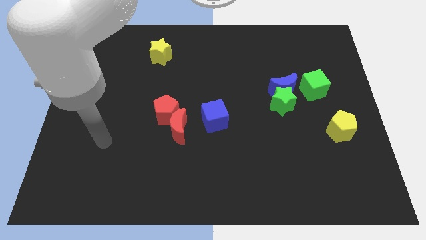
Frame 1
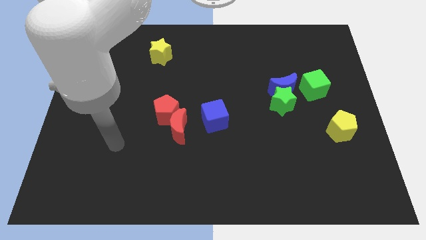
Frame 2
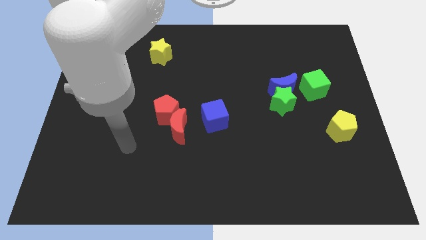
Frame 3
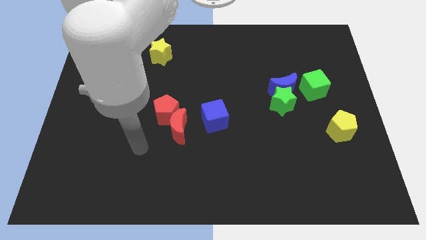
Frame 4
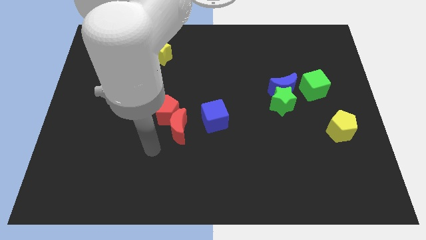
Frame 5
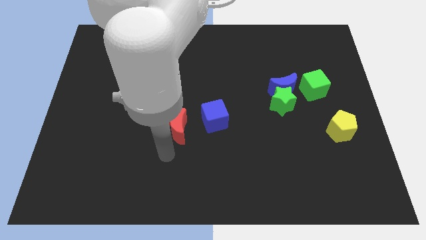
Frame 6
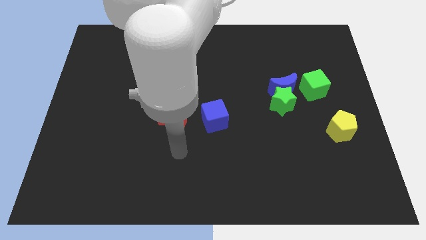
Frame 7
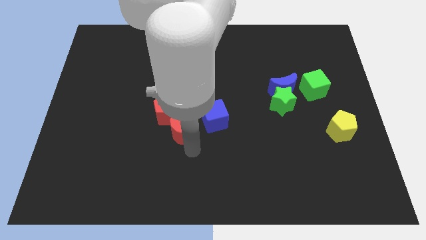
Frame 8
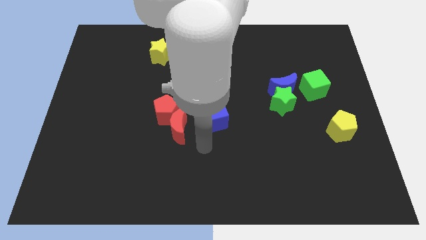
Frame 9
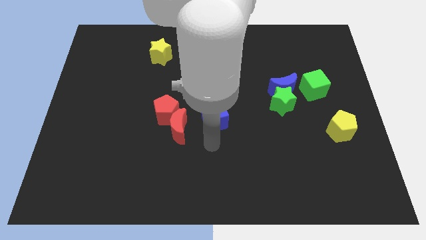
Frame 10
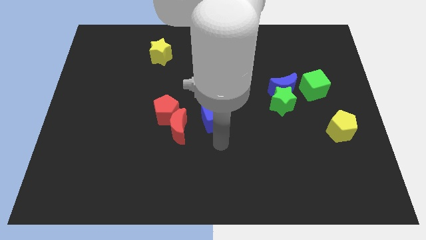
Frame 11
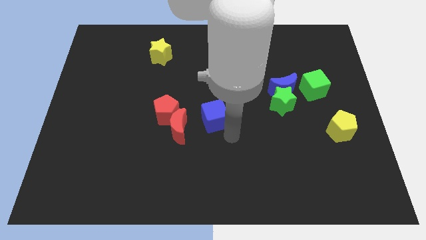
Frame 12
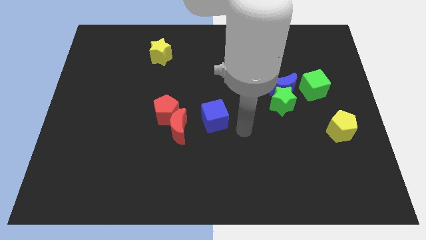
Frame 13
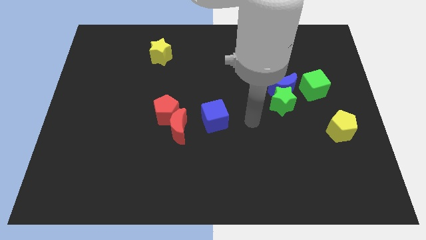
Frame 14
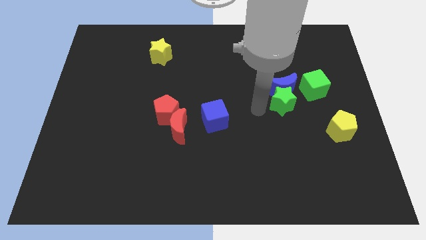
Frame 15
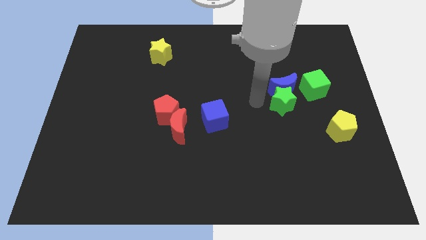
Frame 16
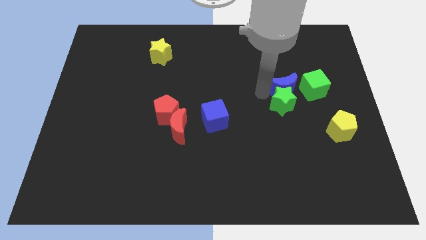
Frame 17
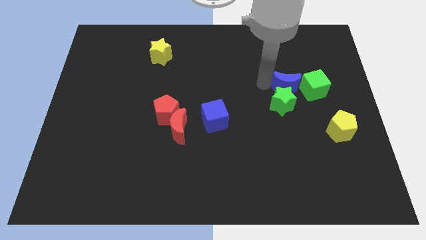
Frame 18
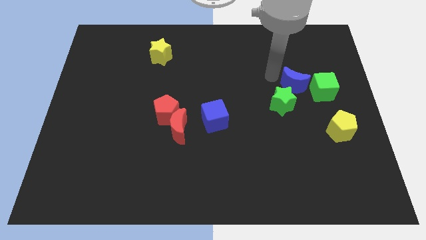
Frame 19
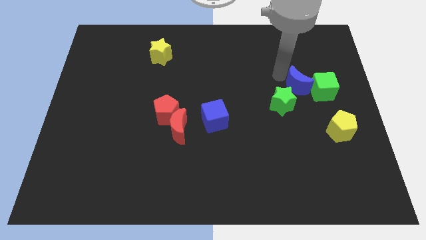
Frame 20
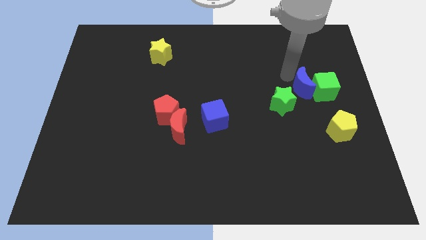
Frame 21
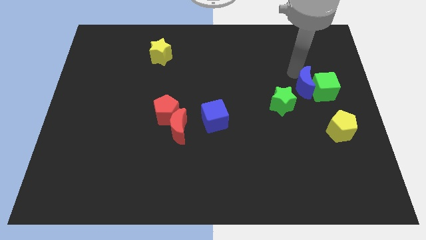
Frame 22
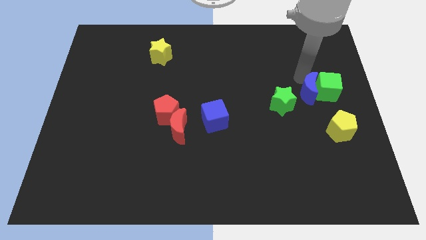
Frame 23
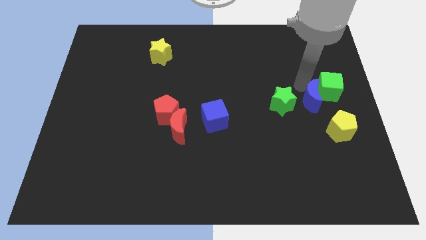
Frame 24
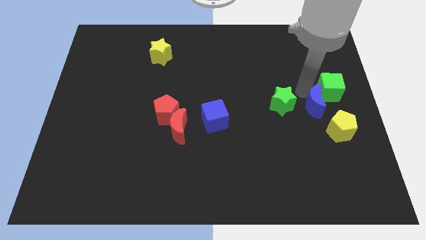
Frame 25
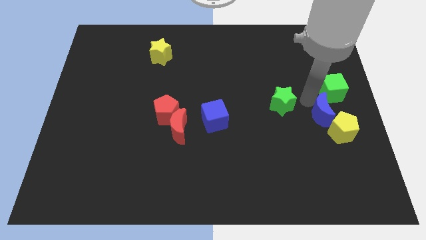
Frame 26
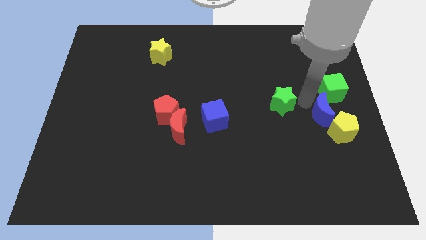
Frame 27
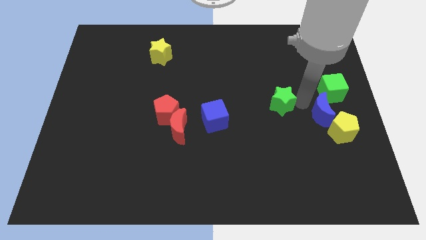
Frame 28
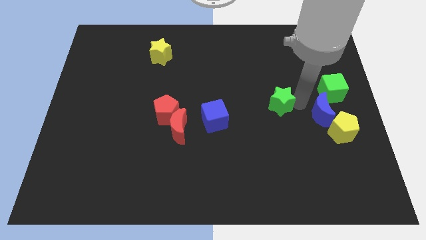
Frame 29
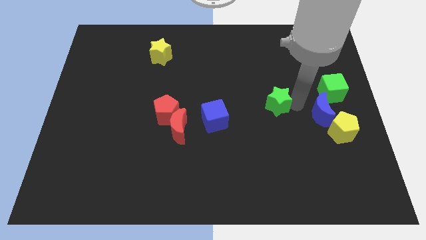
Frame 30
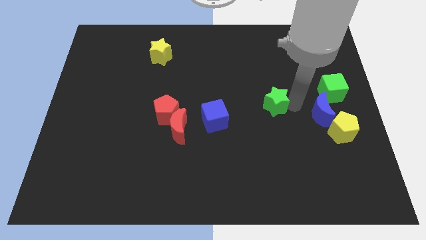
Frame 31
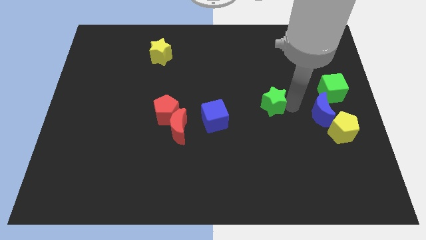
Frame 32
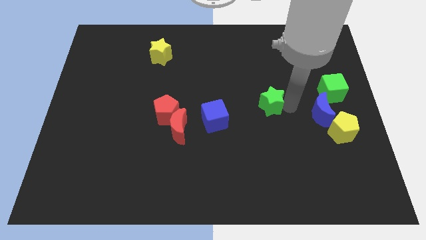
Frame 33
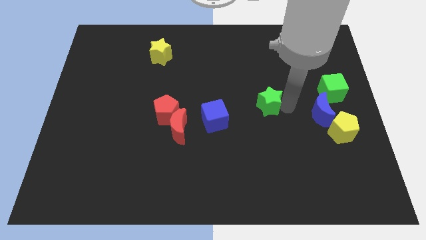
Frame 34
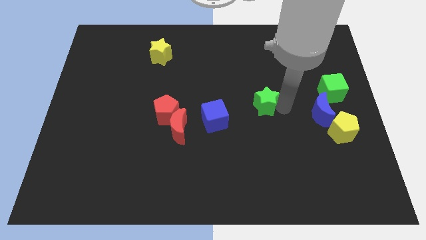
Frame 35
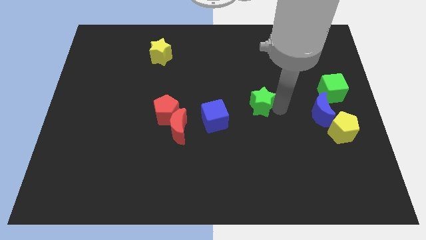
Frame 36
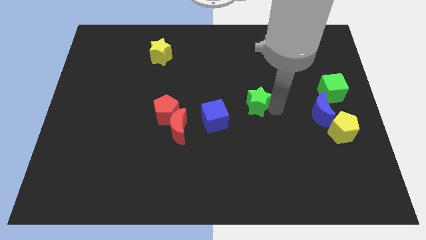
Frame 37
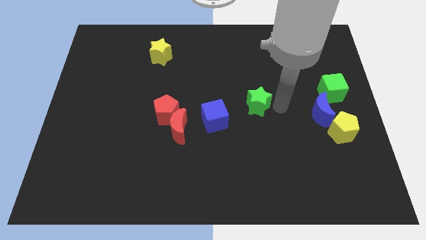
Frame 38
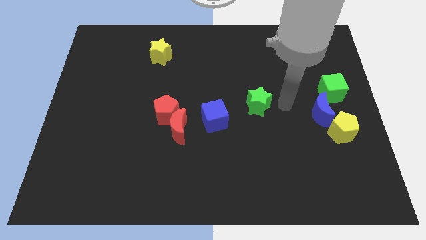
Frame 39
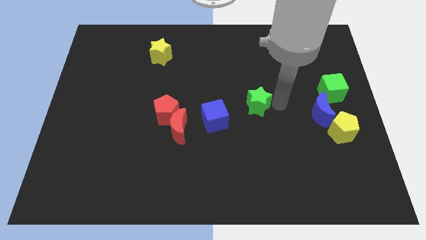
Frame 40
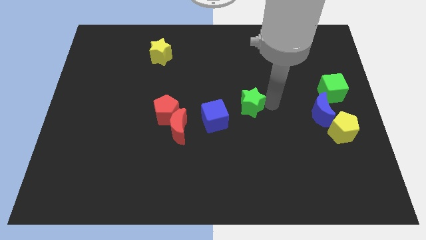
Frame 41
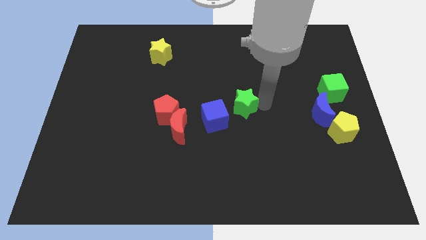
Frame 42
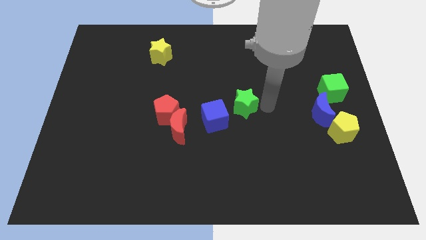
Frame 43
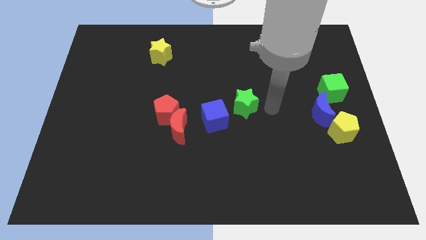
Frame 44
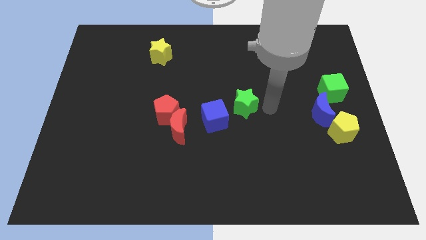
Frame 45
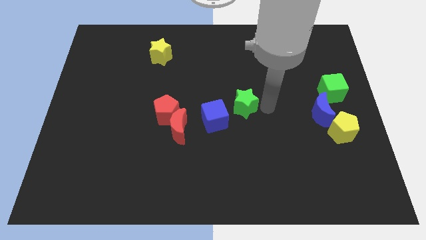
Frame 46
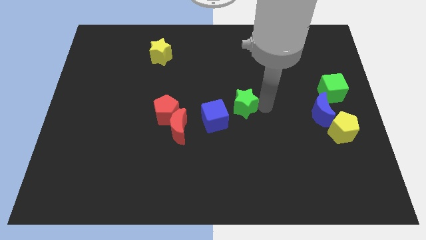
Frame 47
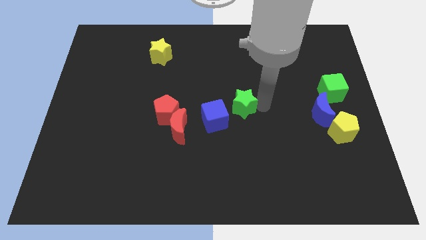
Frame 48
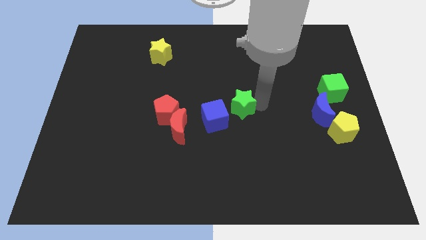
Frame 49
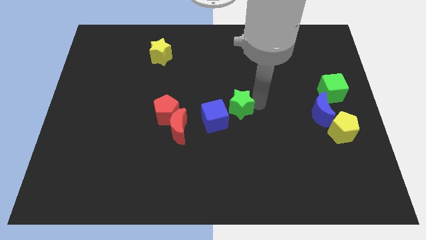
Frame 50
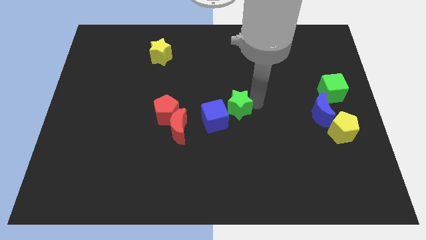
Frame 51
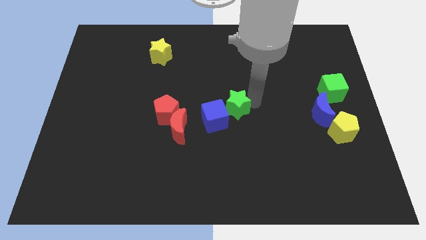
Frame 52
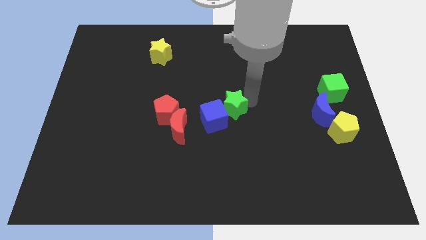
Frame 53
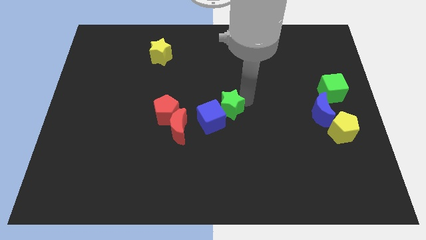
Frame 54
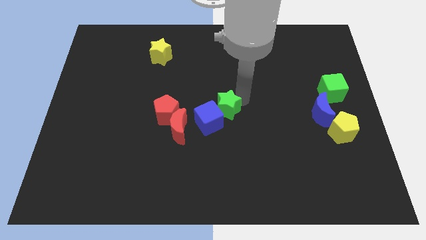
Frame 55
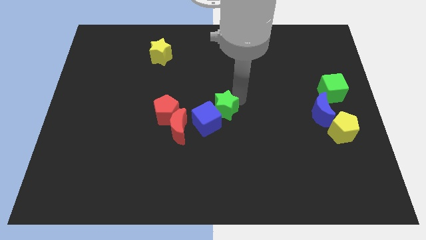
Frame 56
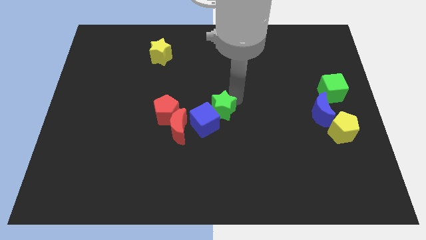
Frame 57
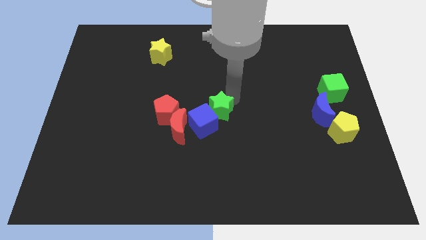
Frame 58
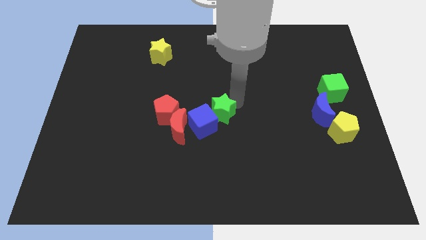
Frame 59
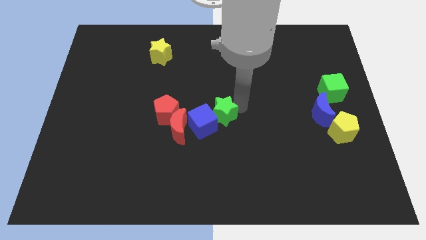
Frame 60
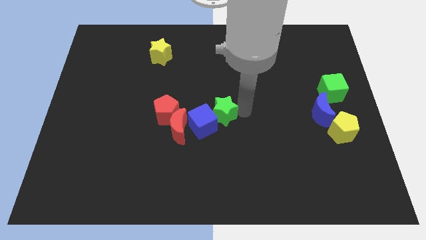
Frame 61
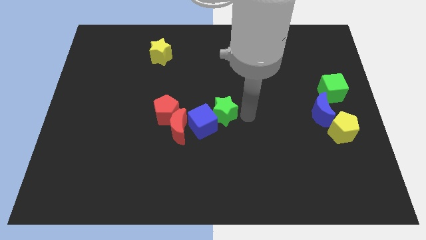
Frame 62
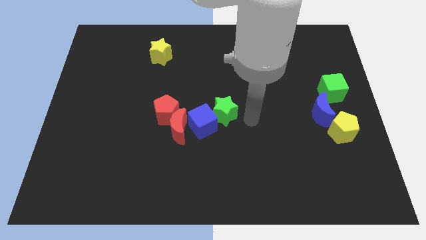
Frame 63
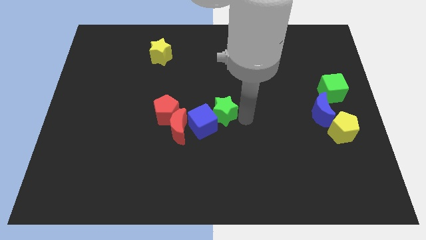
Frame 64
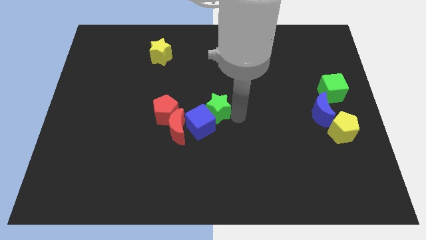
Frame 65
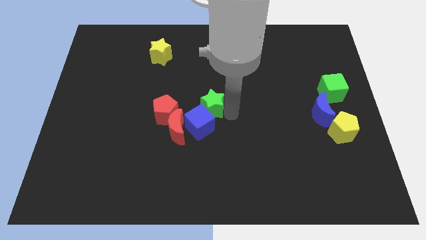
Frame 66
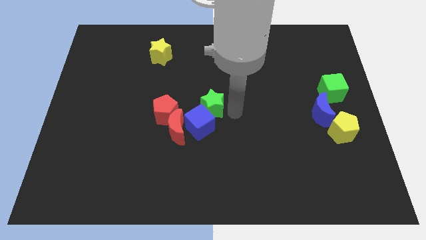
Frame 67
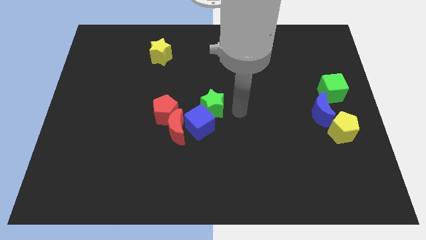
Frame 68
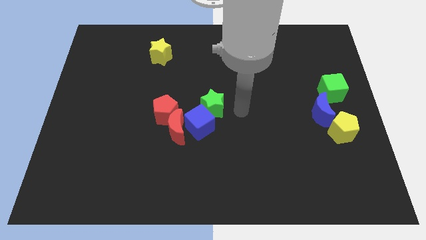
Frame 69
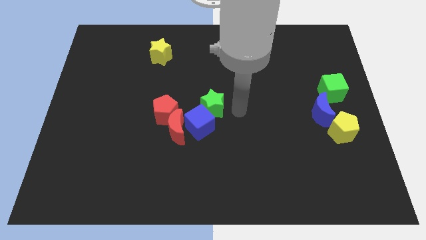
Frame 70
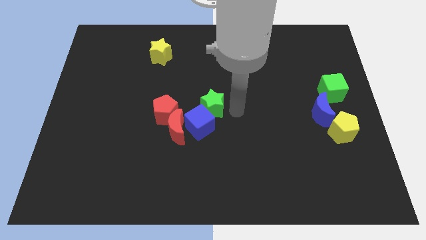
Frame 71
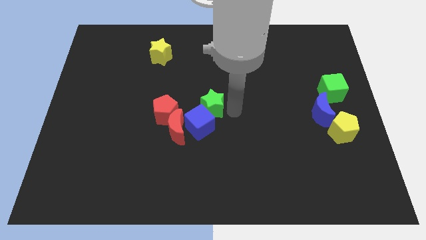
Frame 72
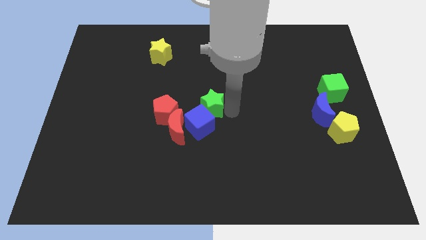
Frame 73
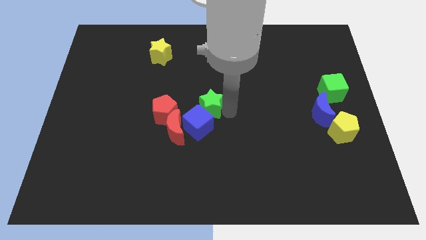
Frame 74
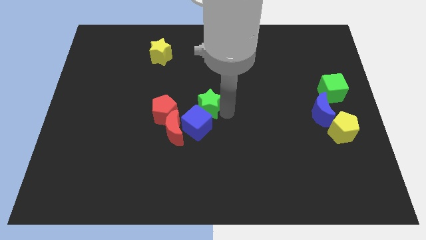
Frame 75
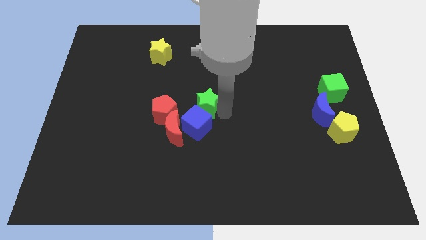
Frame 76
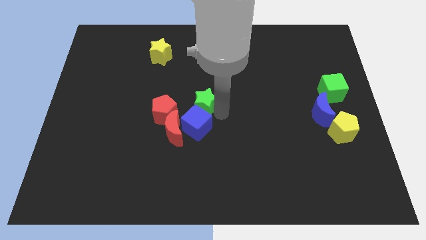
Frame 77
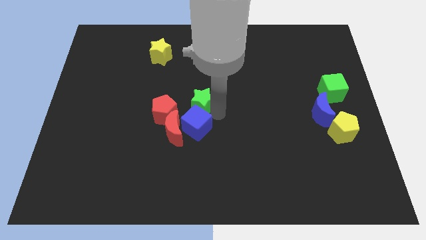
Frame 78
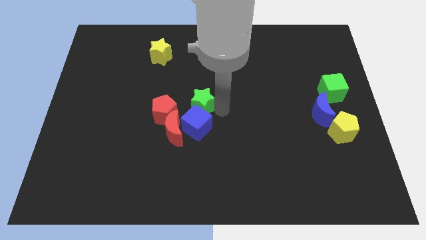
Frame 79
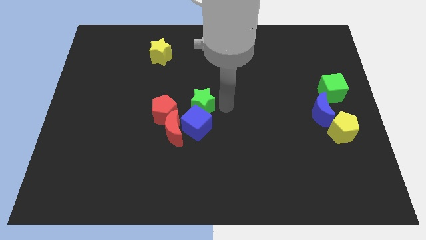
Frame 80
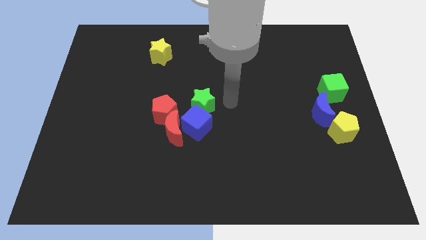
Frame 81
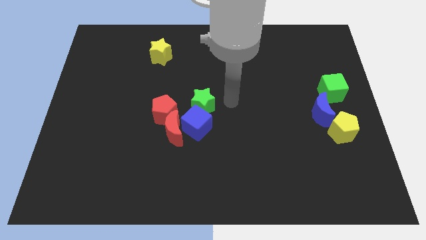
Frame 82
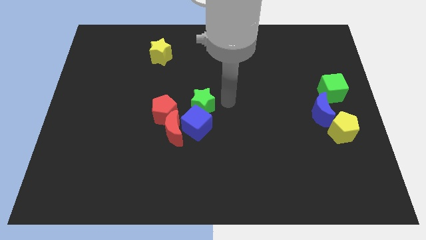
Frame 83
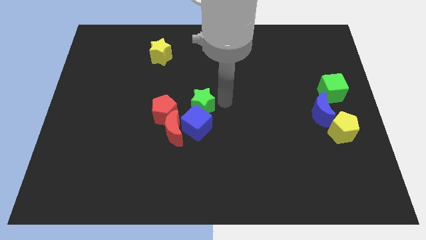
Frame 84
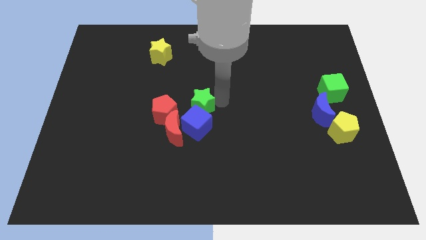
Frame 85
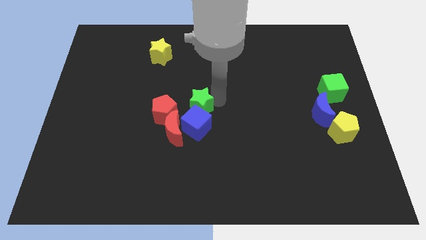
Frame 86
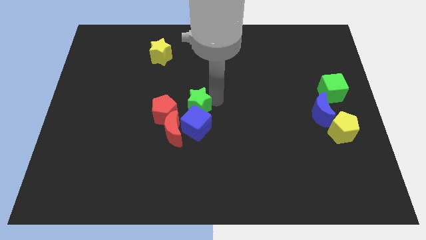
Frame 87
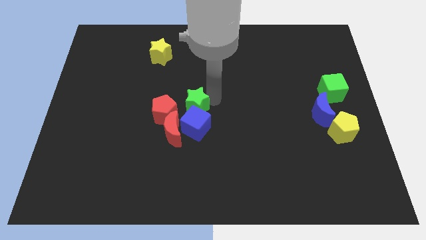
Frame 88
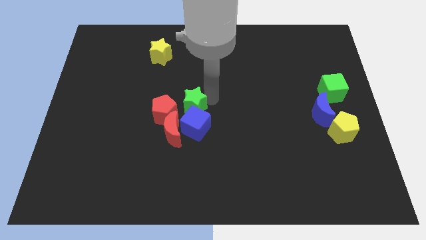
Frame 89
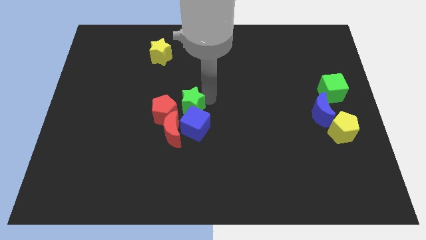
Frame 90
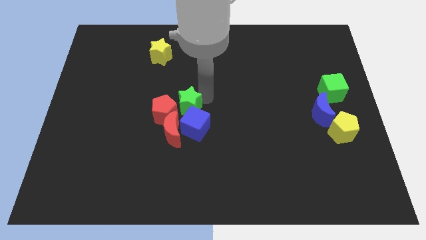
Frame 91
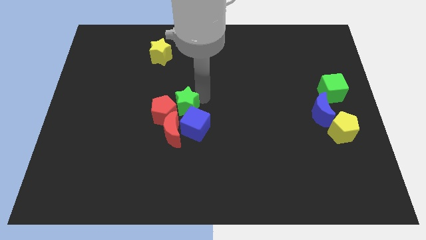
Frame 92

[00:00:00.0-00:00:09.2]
move the green star towards the red pentagon
